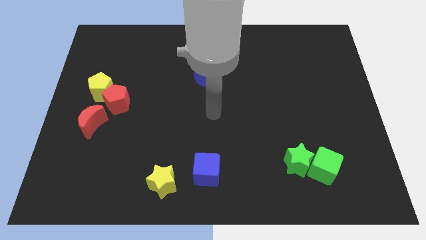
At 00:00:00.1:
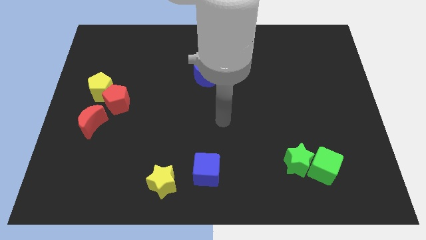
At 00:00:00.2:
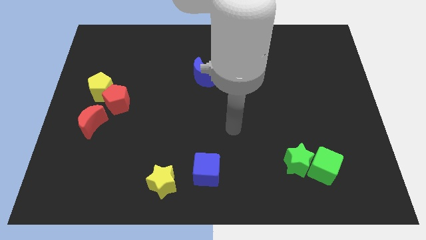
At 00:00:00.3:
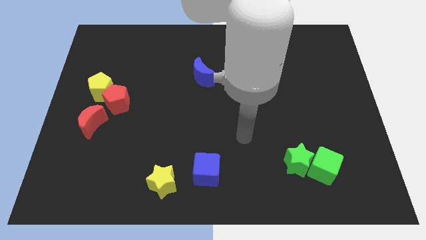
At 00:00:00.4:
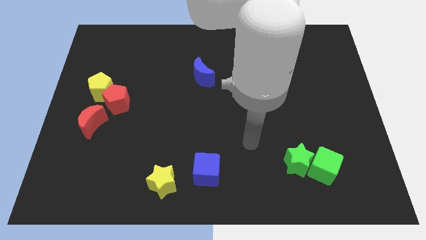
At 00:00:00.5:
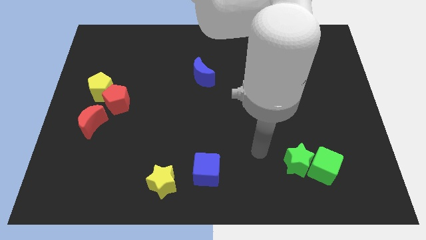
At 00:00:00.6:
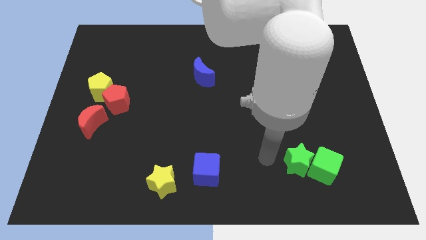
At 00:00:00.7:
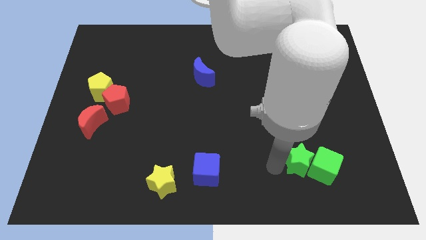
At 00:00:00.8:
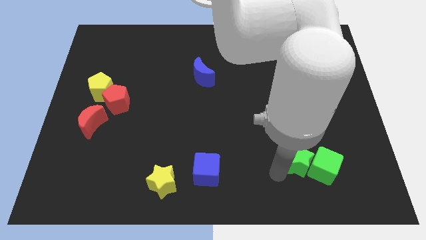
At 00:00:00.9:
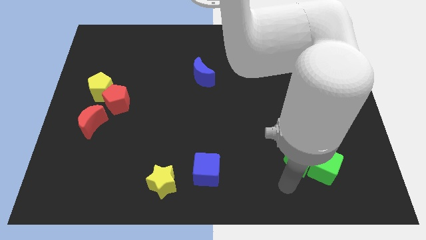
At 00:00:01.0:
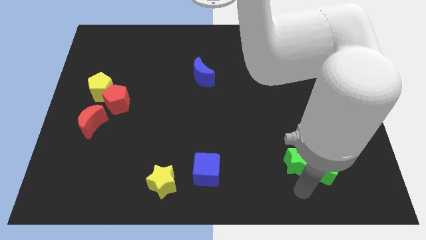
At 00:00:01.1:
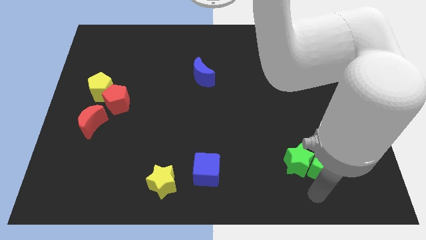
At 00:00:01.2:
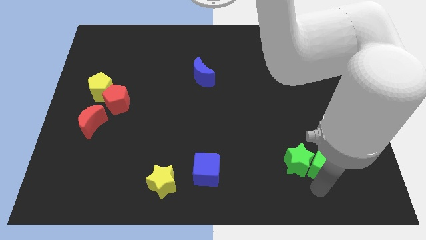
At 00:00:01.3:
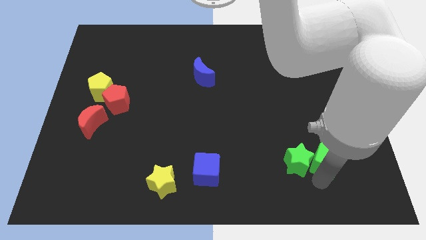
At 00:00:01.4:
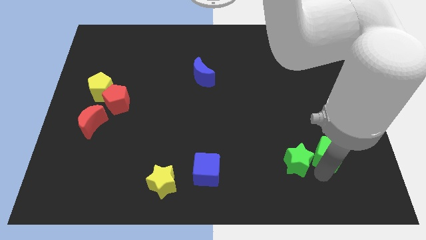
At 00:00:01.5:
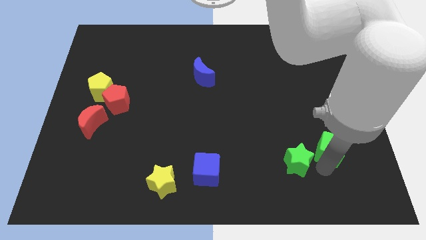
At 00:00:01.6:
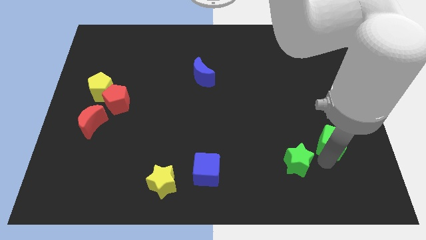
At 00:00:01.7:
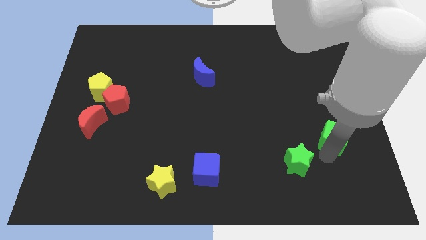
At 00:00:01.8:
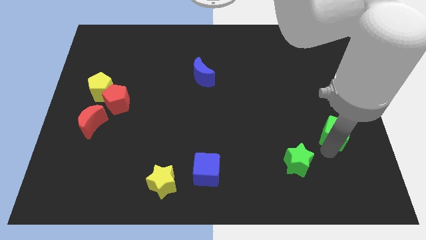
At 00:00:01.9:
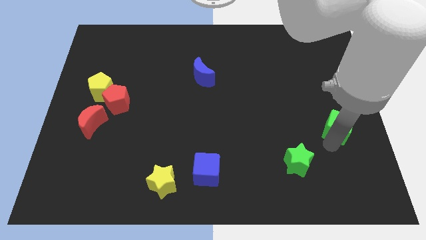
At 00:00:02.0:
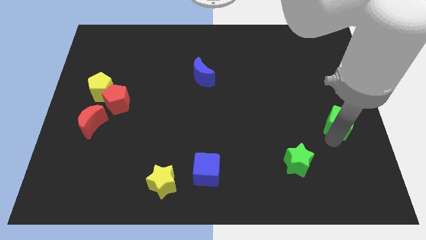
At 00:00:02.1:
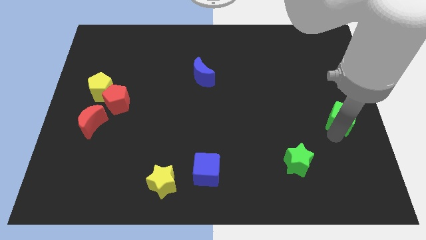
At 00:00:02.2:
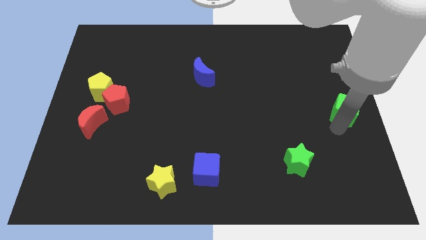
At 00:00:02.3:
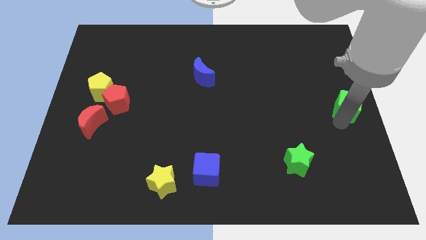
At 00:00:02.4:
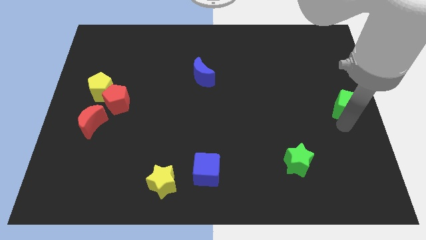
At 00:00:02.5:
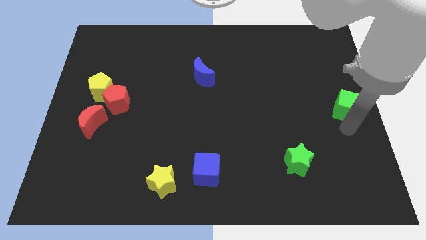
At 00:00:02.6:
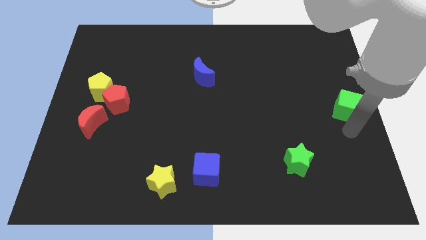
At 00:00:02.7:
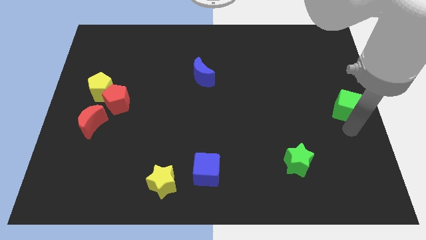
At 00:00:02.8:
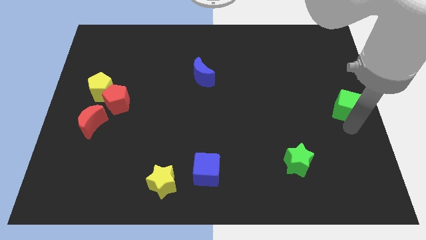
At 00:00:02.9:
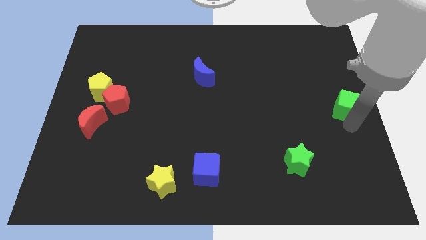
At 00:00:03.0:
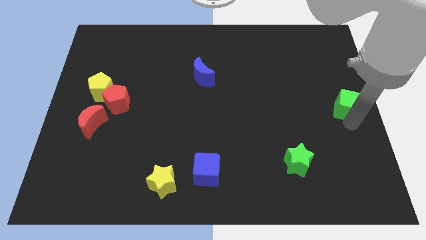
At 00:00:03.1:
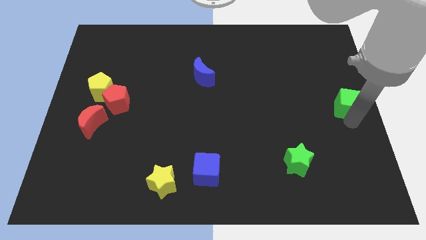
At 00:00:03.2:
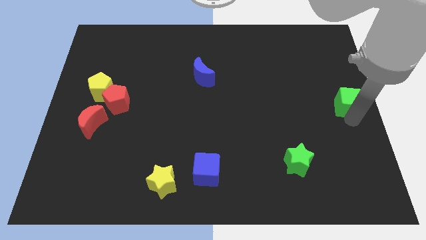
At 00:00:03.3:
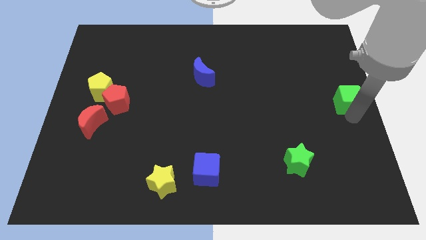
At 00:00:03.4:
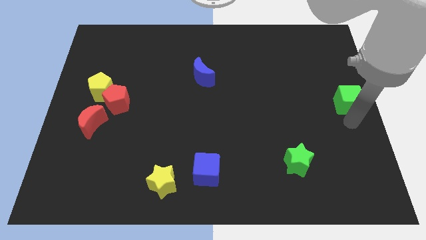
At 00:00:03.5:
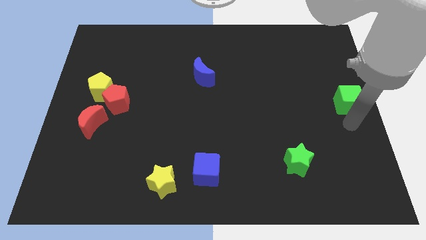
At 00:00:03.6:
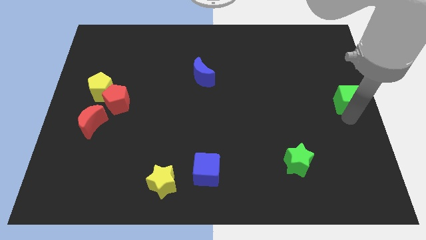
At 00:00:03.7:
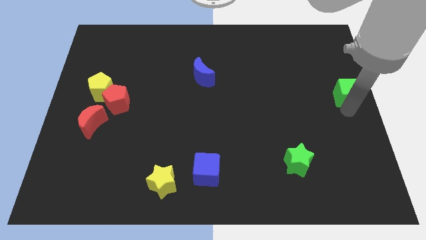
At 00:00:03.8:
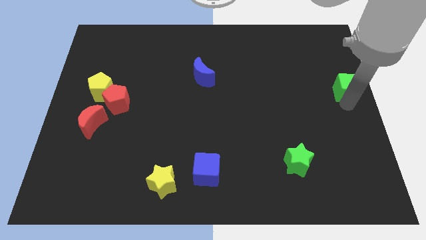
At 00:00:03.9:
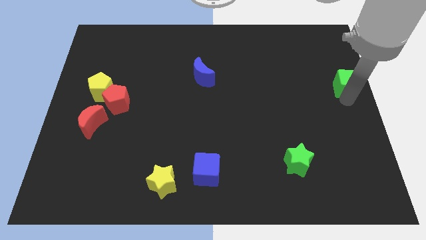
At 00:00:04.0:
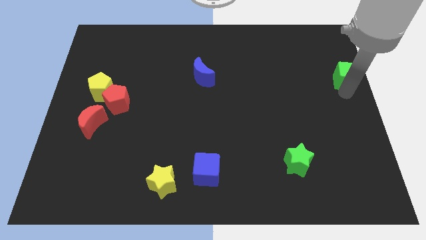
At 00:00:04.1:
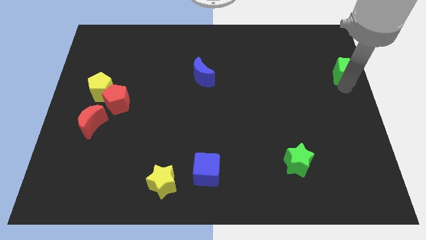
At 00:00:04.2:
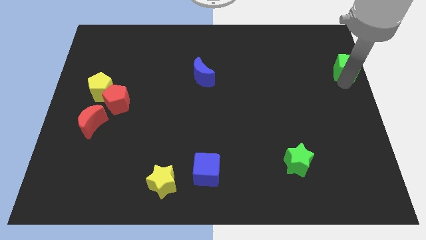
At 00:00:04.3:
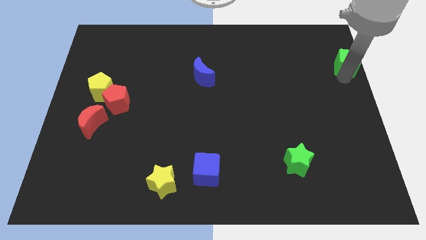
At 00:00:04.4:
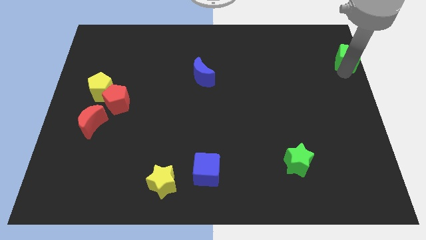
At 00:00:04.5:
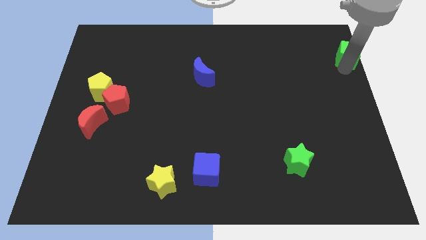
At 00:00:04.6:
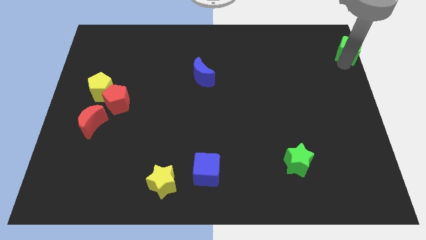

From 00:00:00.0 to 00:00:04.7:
put the green cube to the top right corner

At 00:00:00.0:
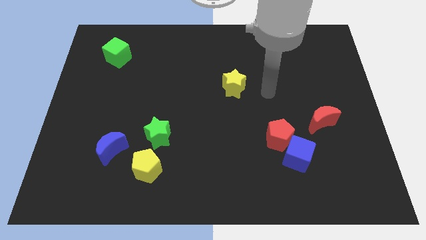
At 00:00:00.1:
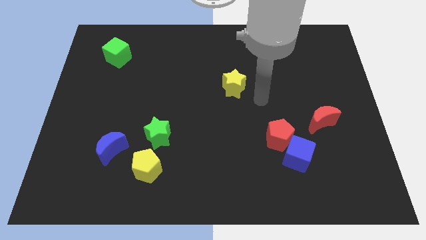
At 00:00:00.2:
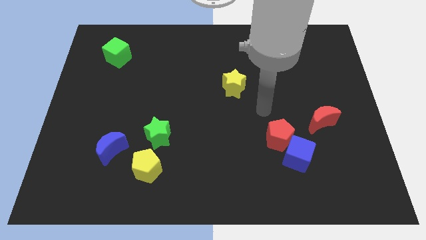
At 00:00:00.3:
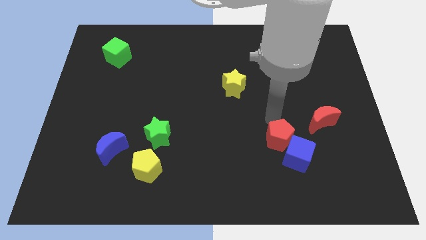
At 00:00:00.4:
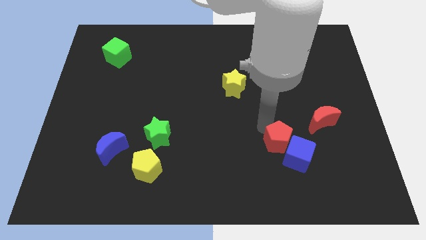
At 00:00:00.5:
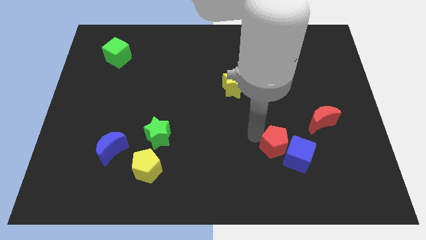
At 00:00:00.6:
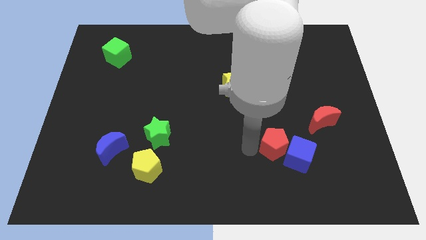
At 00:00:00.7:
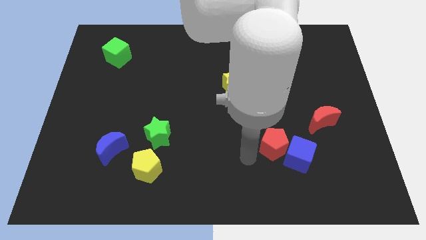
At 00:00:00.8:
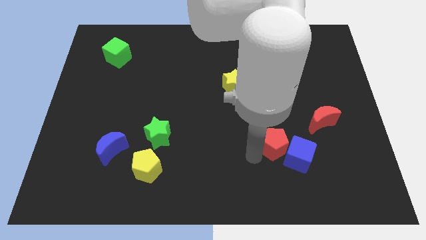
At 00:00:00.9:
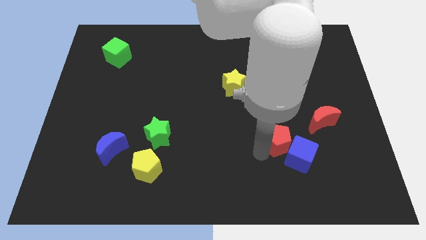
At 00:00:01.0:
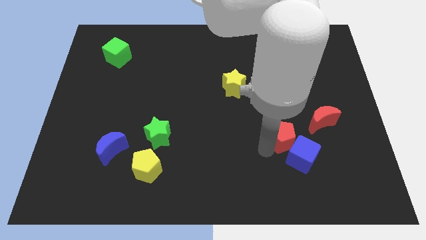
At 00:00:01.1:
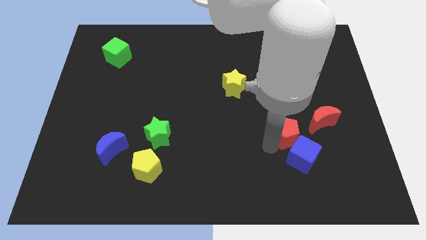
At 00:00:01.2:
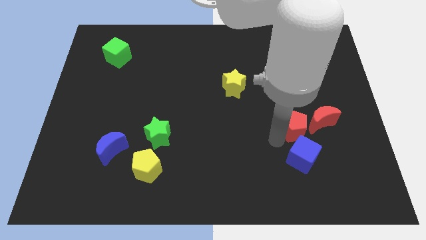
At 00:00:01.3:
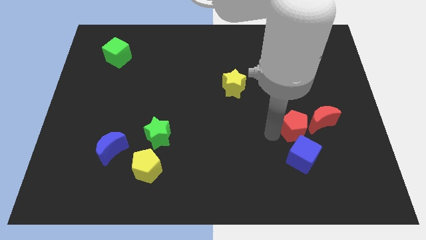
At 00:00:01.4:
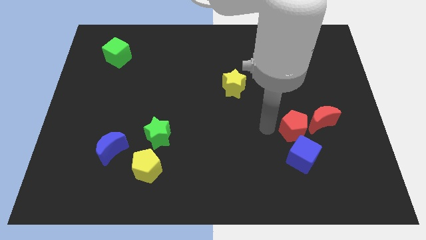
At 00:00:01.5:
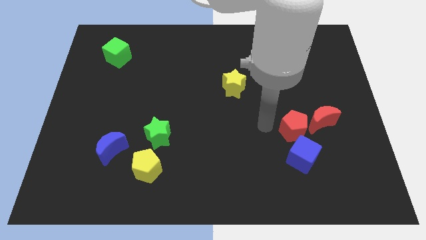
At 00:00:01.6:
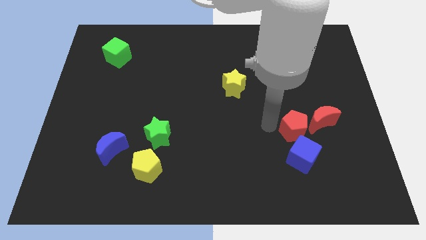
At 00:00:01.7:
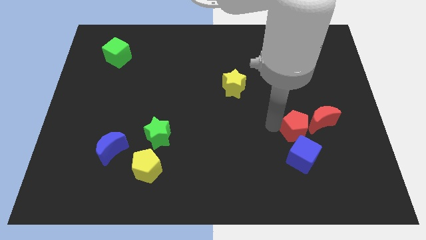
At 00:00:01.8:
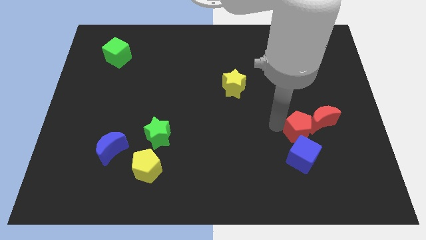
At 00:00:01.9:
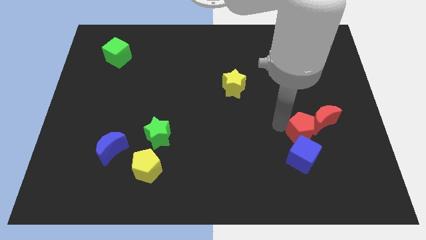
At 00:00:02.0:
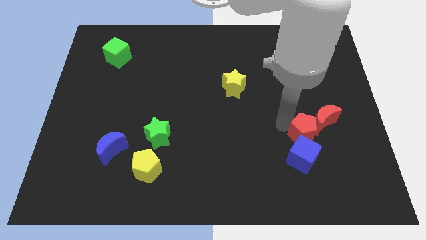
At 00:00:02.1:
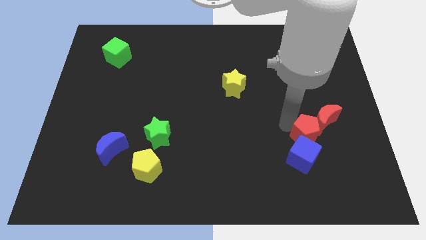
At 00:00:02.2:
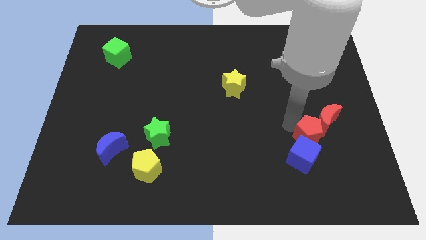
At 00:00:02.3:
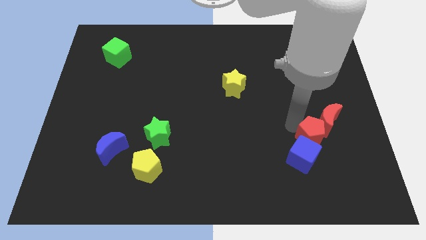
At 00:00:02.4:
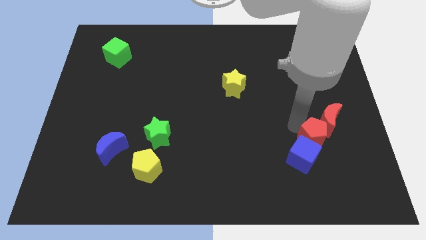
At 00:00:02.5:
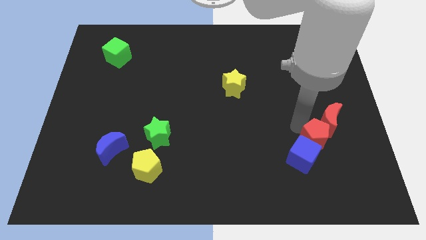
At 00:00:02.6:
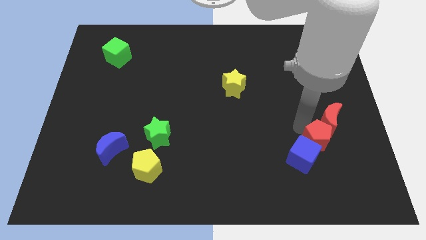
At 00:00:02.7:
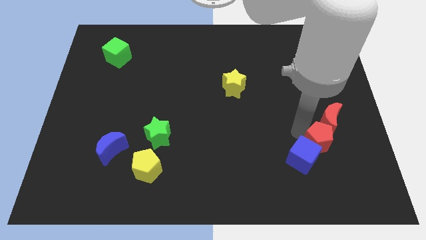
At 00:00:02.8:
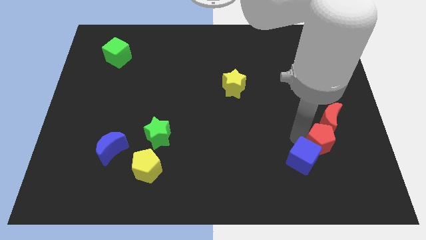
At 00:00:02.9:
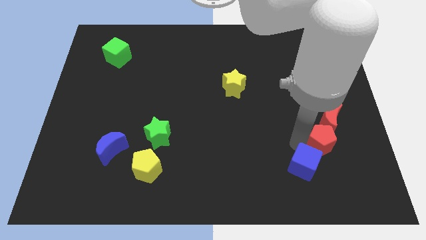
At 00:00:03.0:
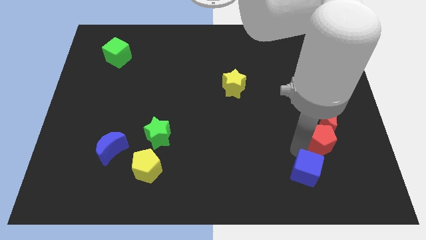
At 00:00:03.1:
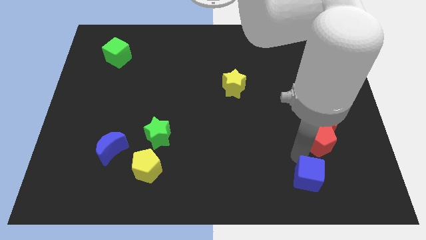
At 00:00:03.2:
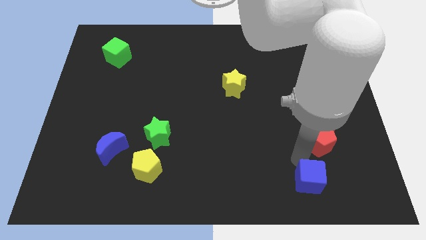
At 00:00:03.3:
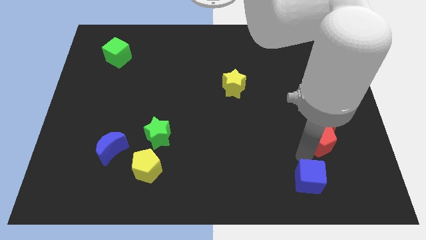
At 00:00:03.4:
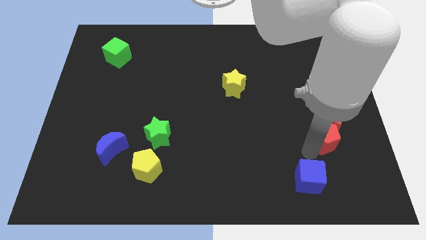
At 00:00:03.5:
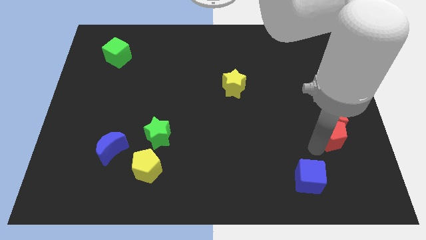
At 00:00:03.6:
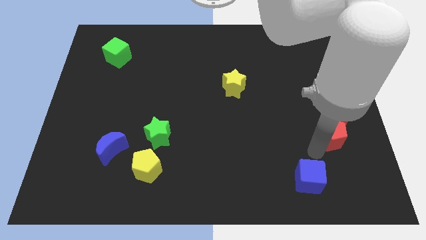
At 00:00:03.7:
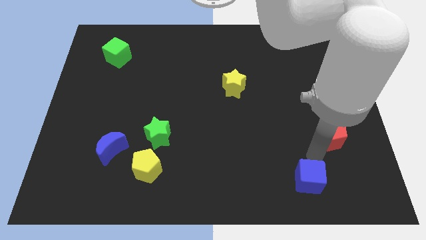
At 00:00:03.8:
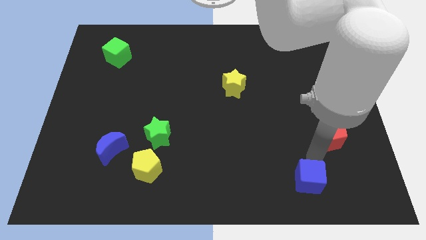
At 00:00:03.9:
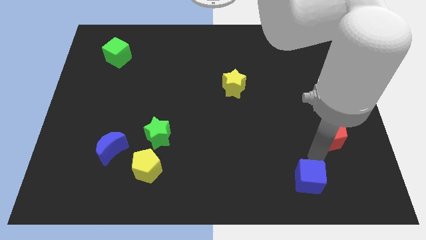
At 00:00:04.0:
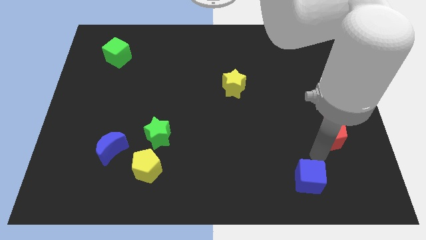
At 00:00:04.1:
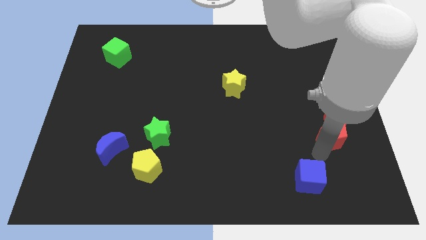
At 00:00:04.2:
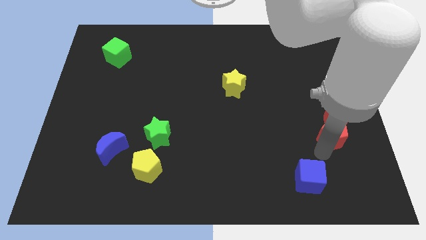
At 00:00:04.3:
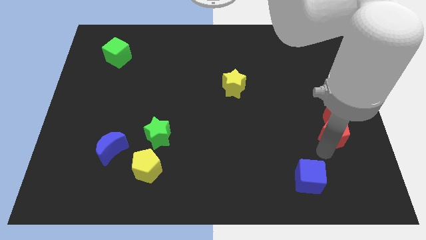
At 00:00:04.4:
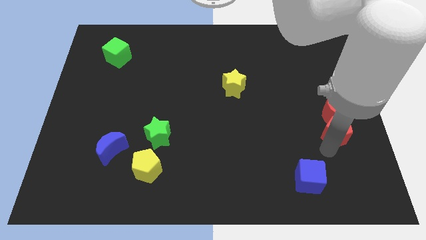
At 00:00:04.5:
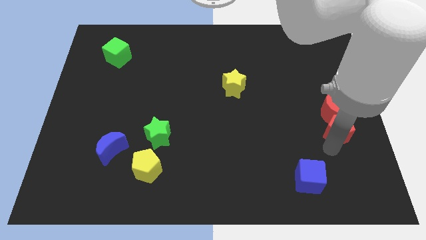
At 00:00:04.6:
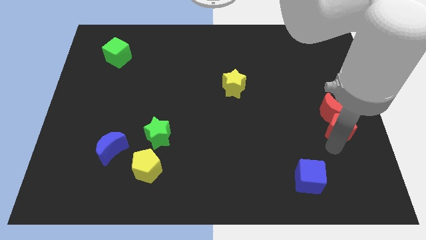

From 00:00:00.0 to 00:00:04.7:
push the red pentagon to the center right
